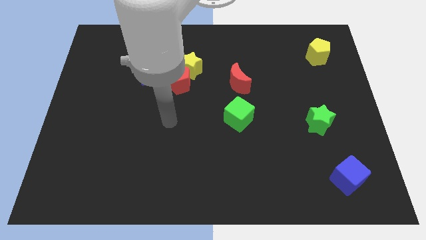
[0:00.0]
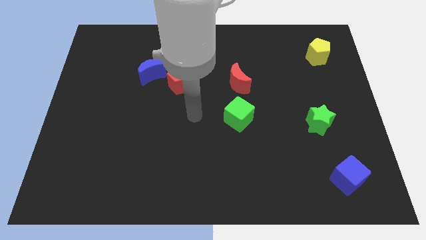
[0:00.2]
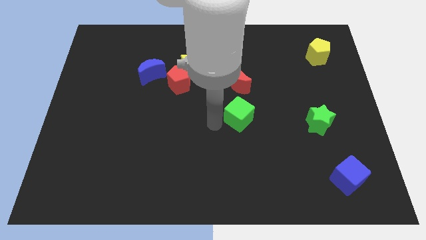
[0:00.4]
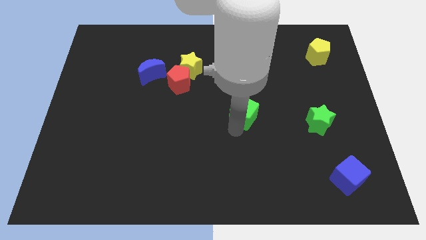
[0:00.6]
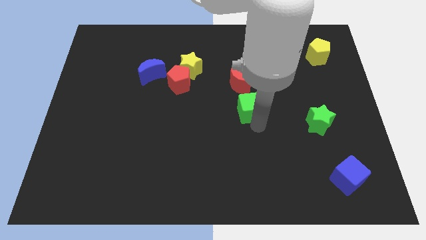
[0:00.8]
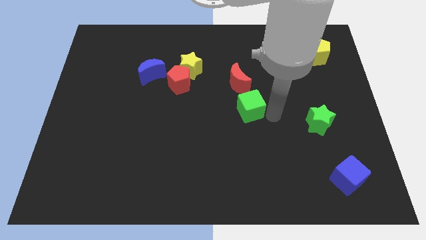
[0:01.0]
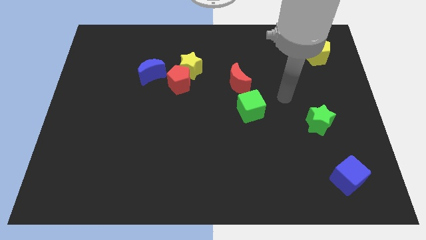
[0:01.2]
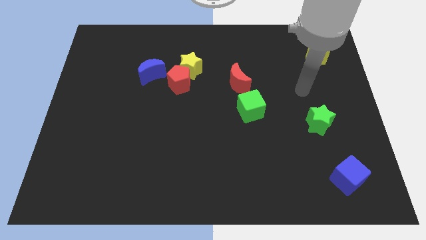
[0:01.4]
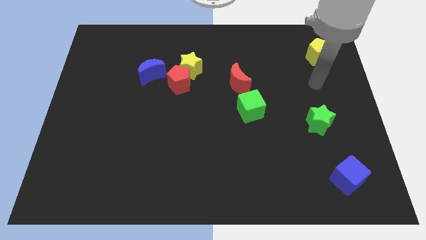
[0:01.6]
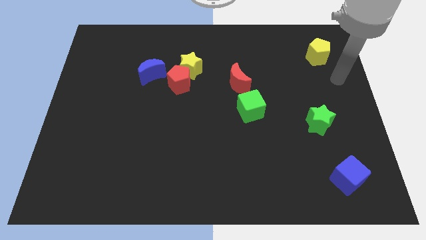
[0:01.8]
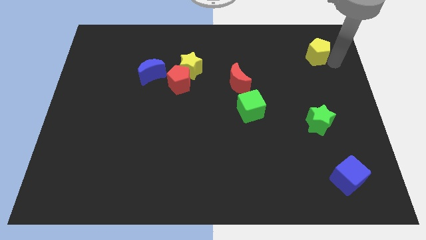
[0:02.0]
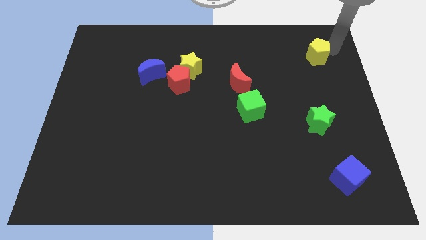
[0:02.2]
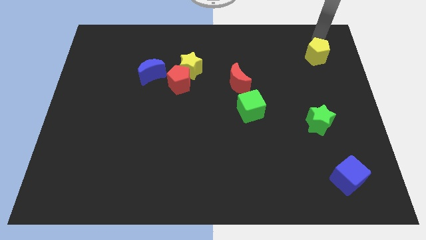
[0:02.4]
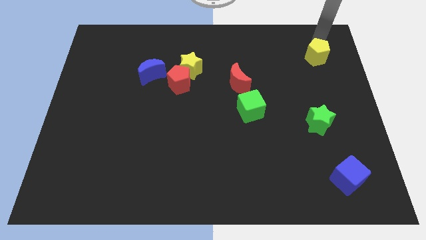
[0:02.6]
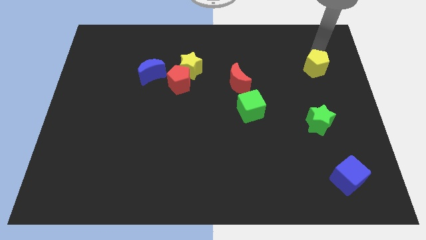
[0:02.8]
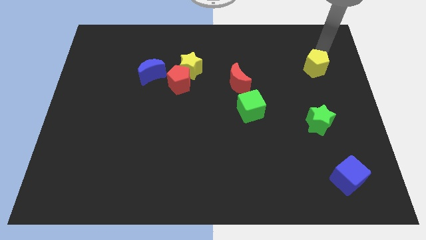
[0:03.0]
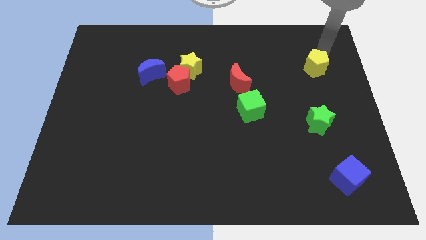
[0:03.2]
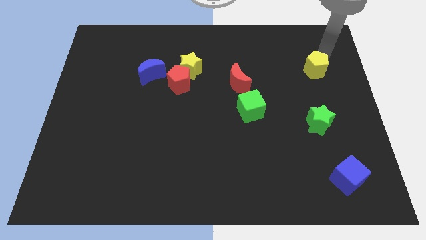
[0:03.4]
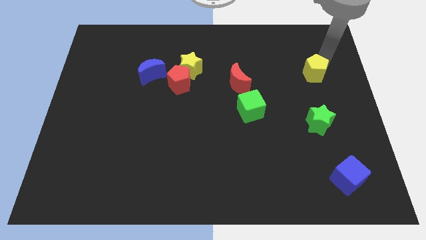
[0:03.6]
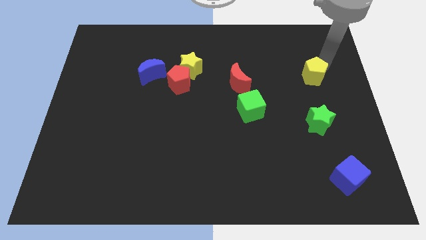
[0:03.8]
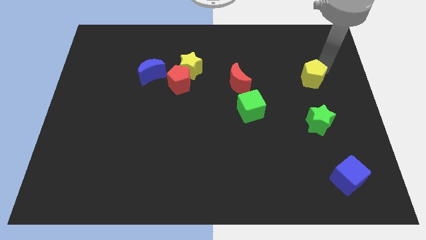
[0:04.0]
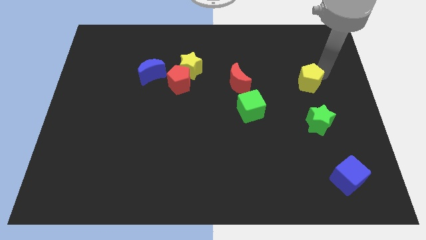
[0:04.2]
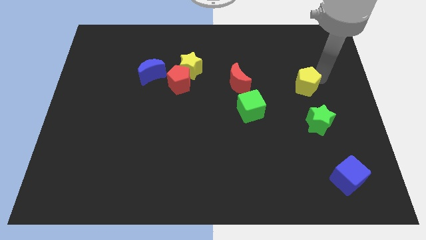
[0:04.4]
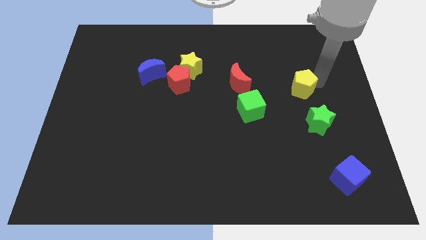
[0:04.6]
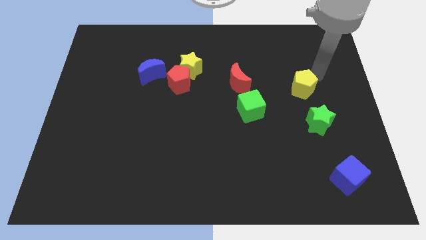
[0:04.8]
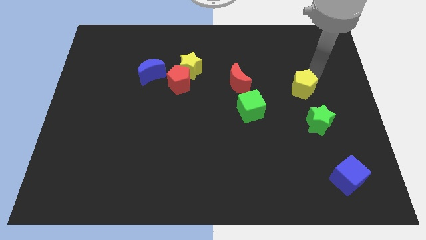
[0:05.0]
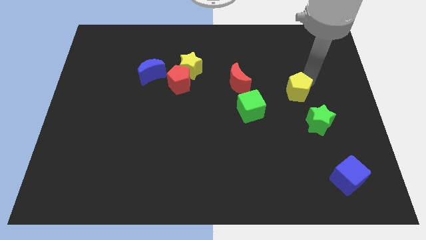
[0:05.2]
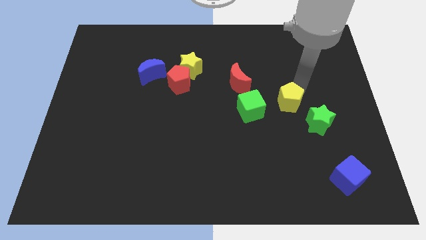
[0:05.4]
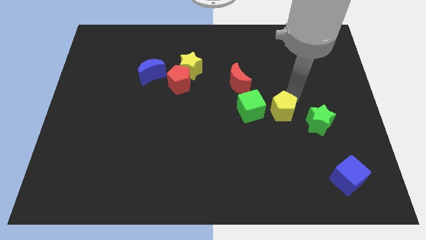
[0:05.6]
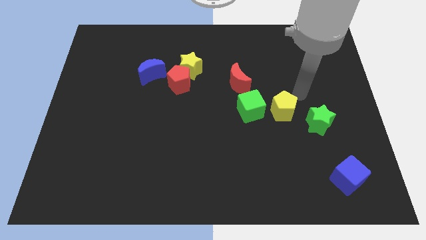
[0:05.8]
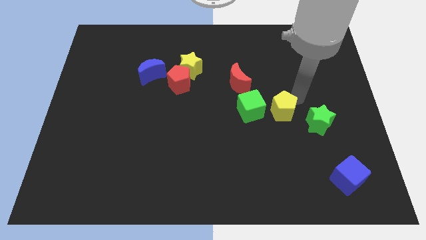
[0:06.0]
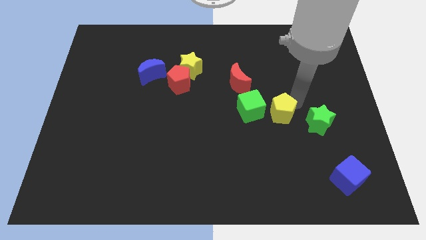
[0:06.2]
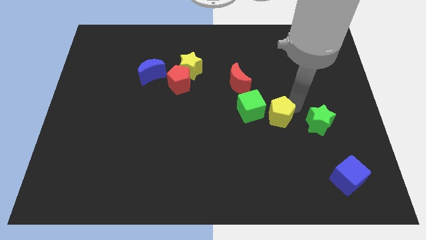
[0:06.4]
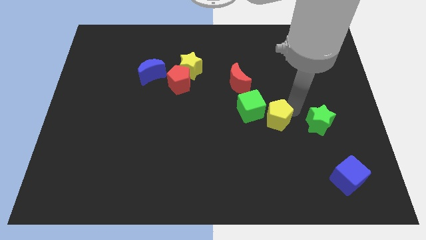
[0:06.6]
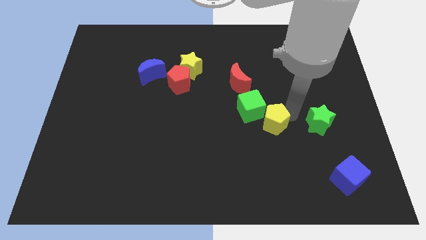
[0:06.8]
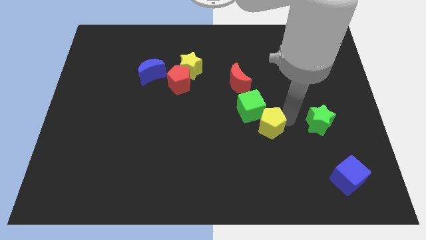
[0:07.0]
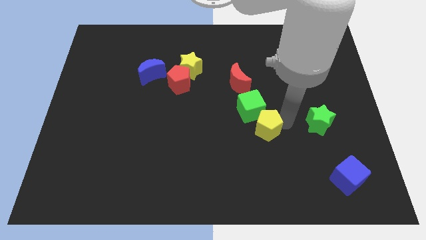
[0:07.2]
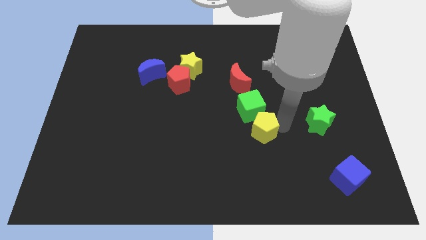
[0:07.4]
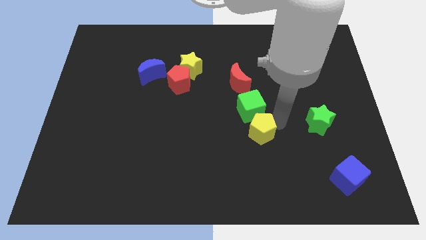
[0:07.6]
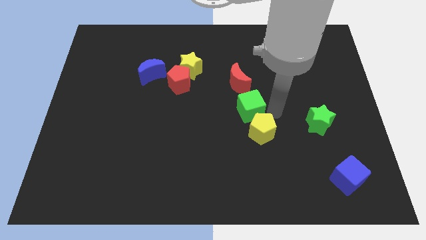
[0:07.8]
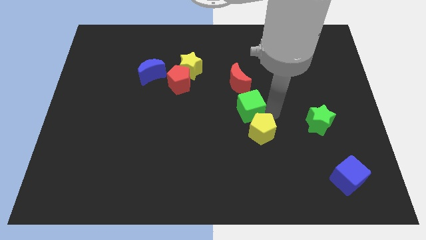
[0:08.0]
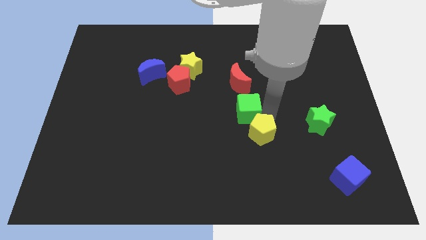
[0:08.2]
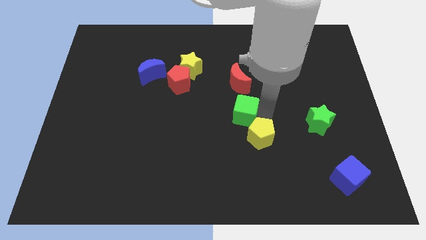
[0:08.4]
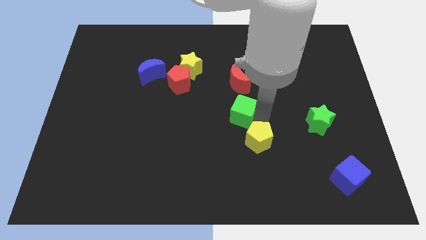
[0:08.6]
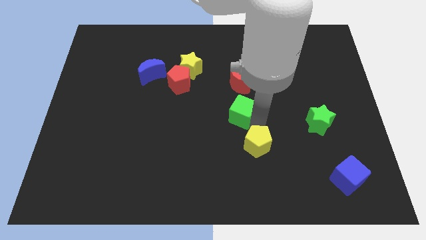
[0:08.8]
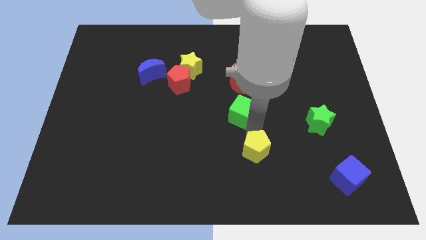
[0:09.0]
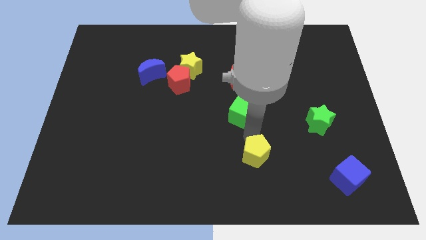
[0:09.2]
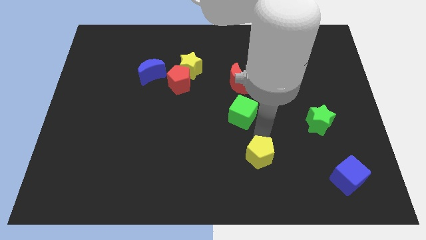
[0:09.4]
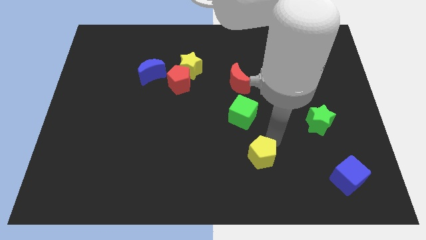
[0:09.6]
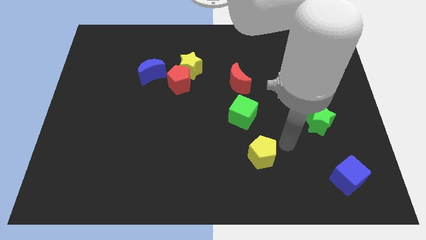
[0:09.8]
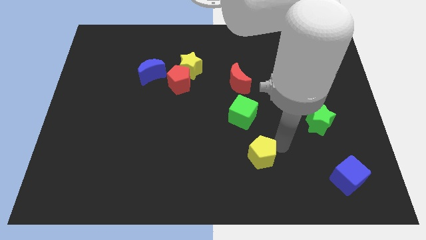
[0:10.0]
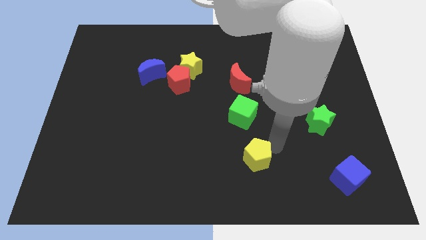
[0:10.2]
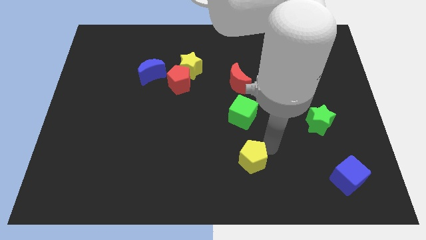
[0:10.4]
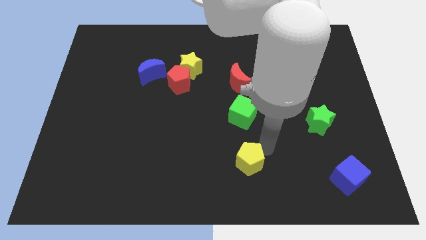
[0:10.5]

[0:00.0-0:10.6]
put the yellow pentagon to the bottom side

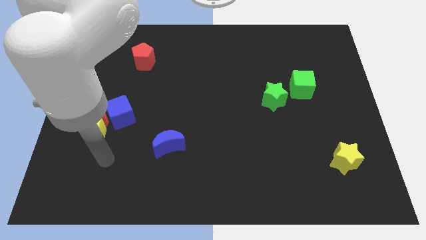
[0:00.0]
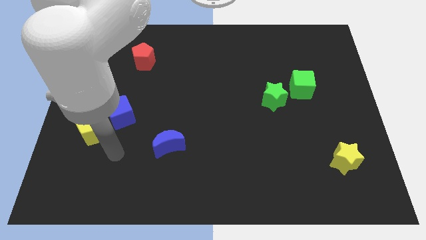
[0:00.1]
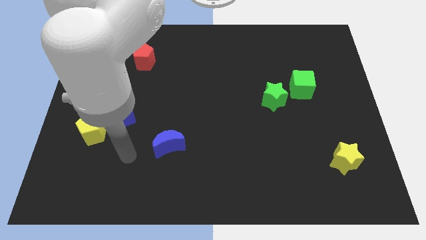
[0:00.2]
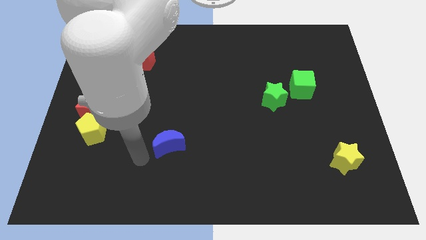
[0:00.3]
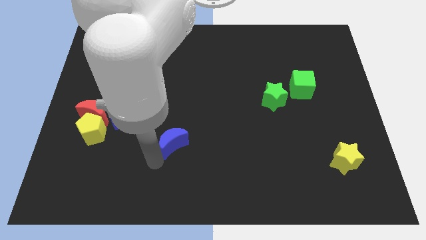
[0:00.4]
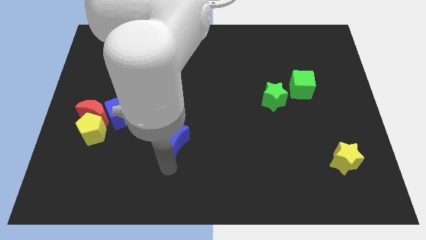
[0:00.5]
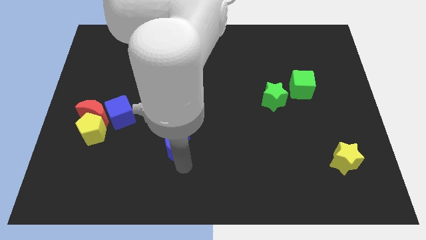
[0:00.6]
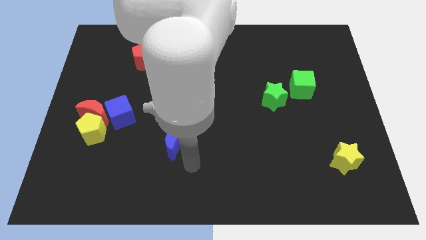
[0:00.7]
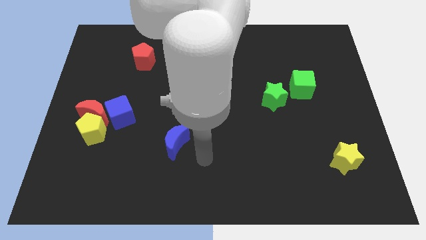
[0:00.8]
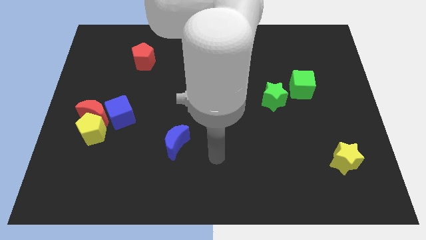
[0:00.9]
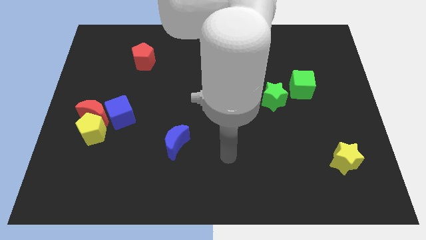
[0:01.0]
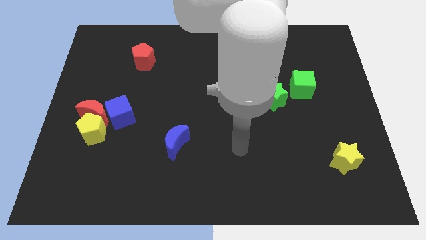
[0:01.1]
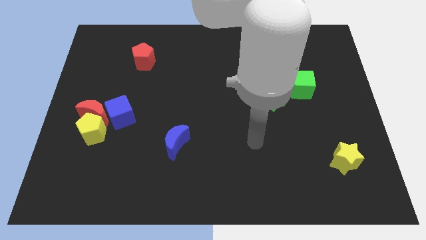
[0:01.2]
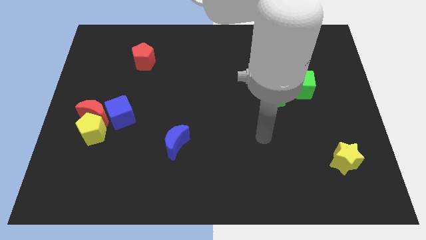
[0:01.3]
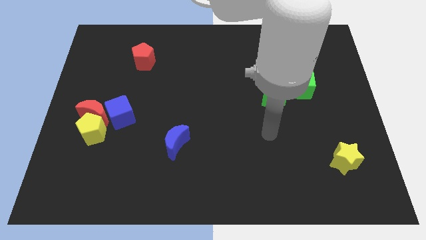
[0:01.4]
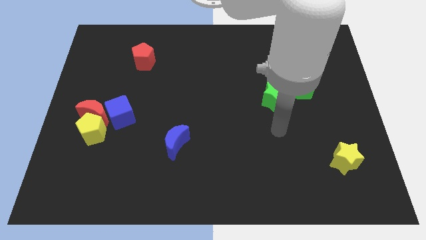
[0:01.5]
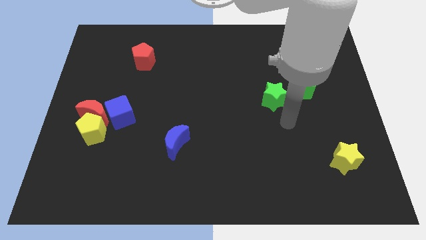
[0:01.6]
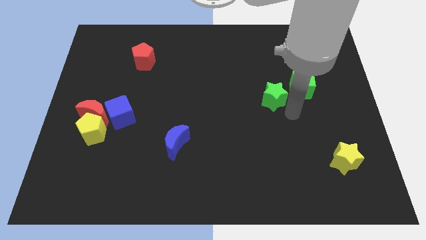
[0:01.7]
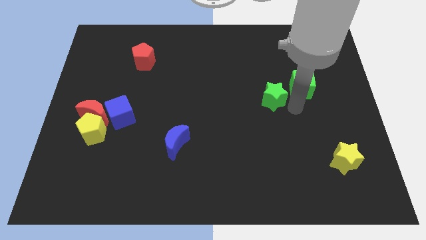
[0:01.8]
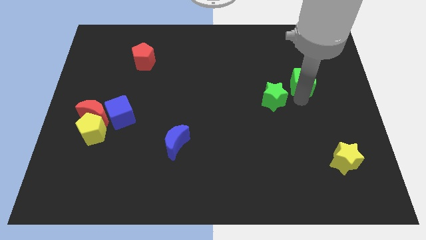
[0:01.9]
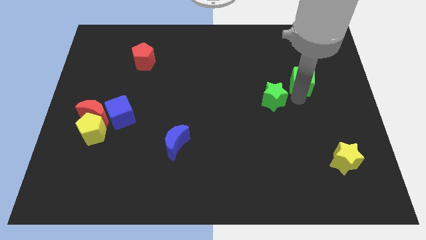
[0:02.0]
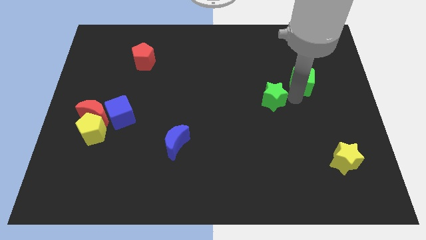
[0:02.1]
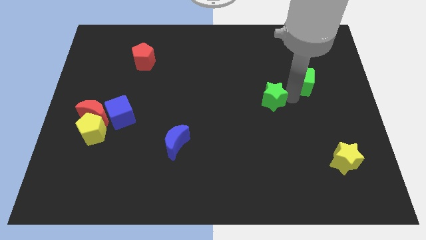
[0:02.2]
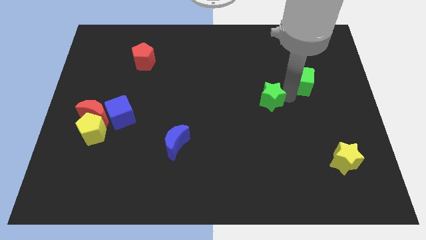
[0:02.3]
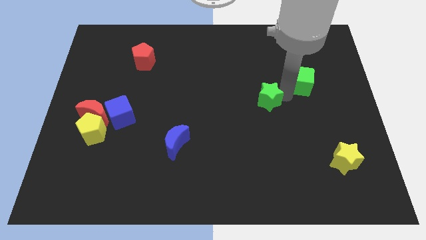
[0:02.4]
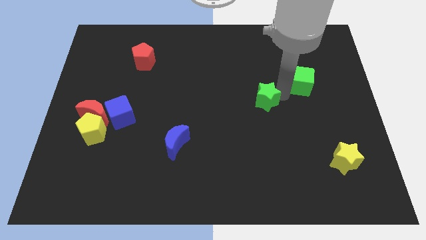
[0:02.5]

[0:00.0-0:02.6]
push the green star to the center of the board
